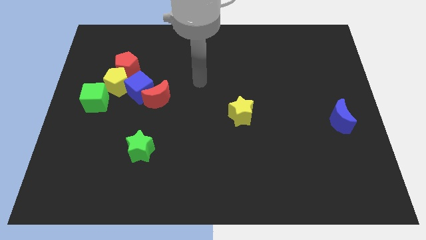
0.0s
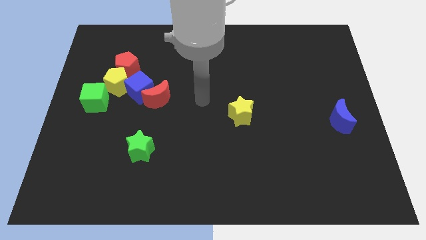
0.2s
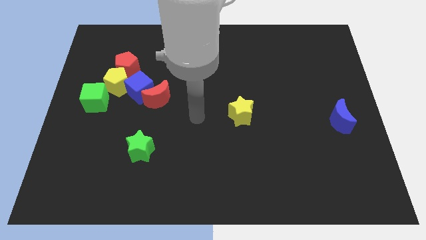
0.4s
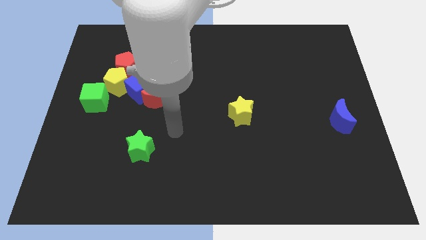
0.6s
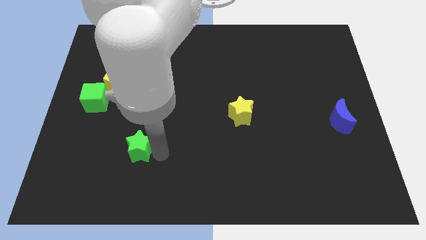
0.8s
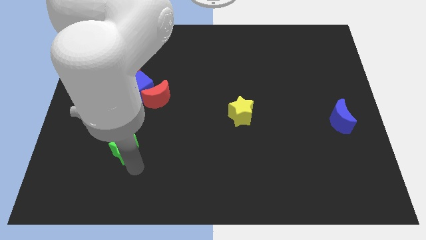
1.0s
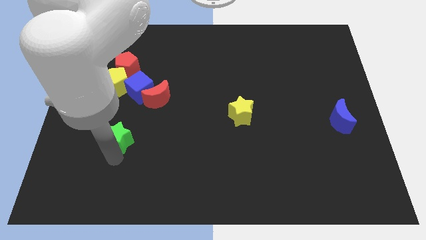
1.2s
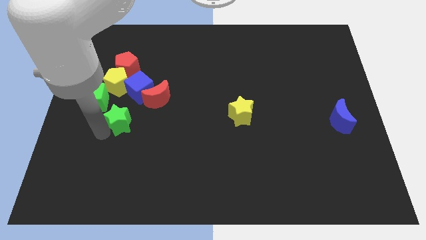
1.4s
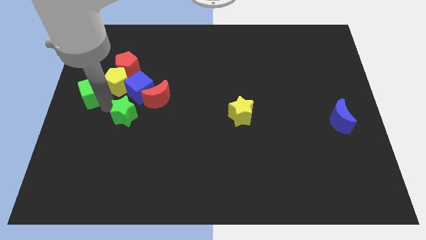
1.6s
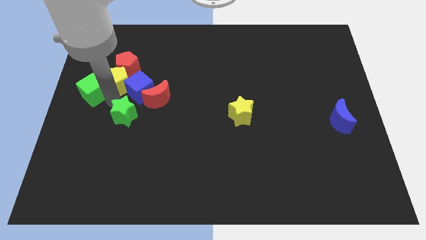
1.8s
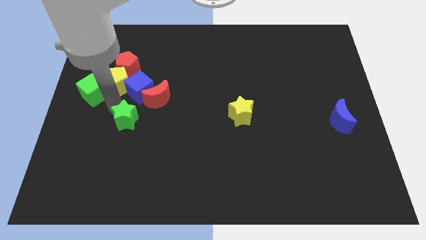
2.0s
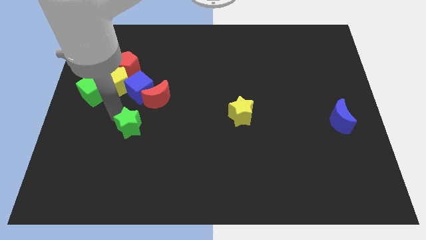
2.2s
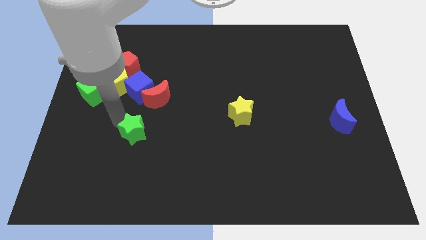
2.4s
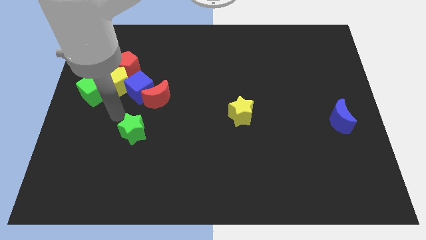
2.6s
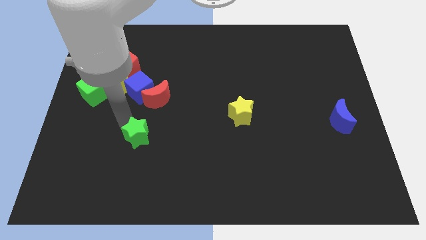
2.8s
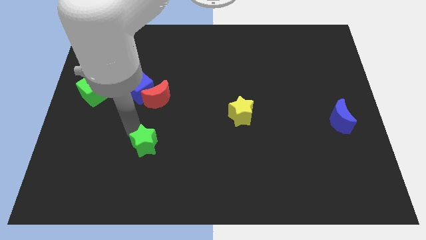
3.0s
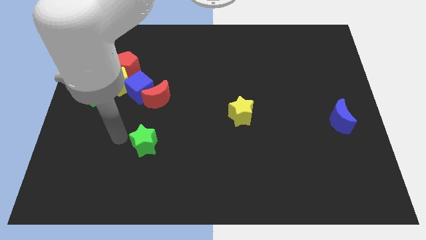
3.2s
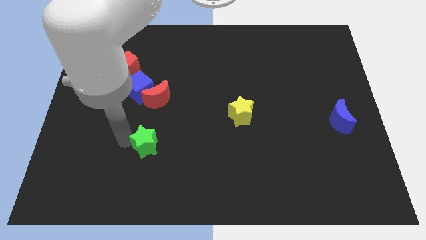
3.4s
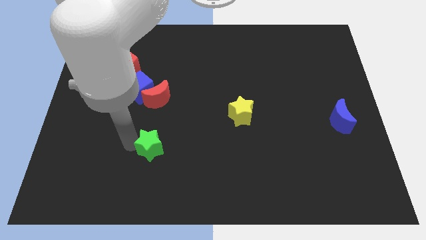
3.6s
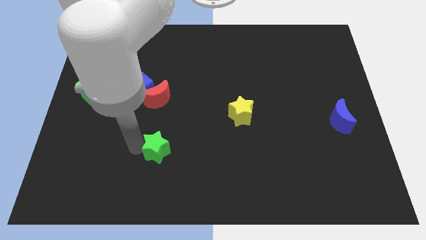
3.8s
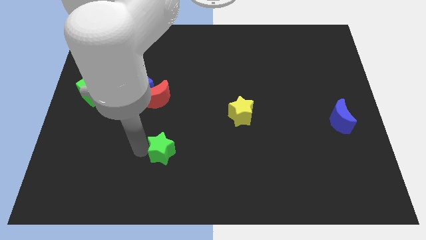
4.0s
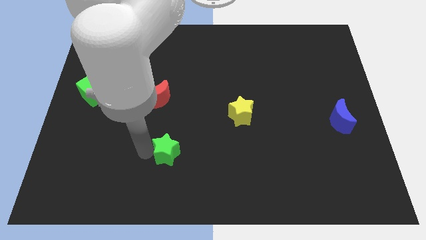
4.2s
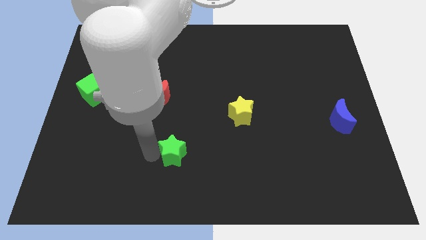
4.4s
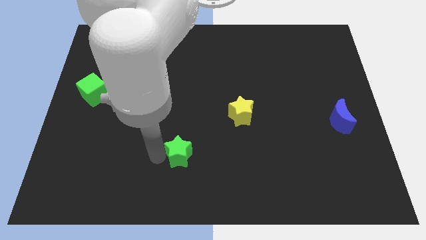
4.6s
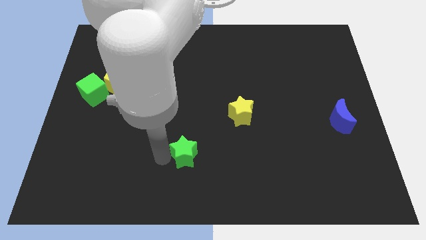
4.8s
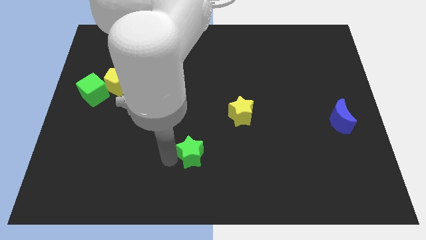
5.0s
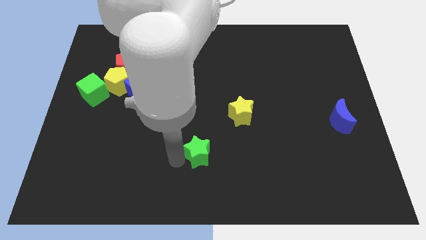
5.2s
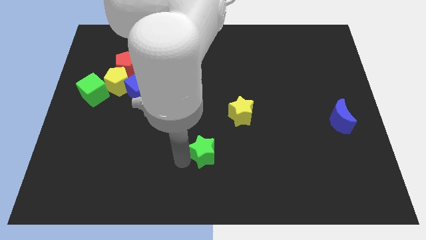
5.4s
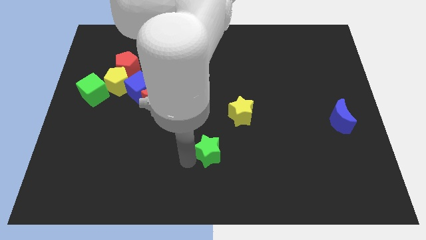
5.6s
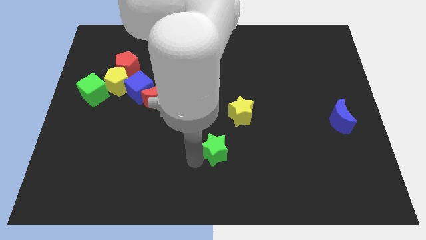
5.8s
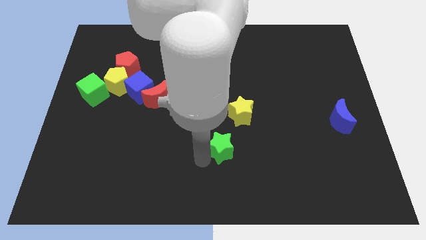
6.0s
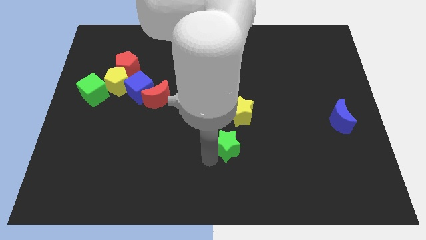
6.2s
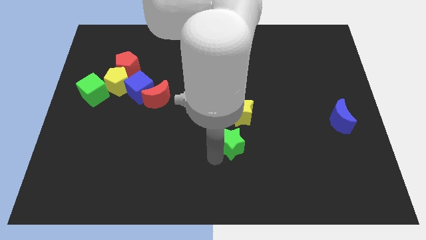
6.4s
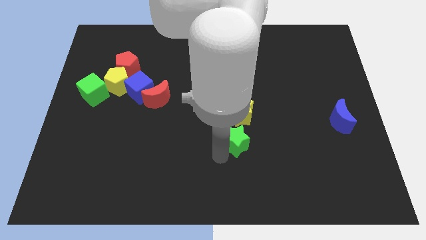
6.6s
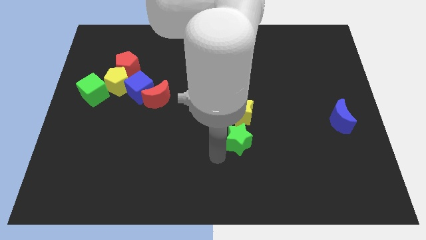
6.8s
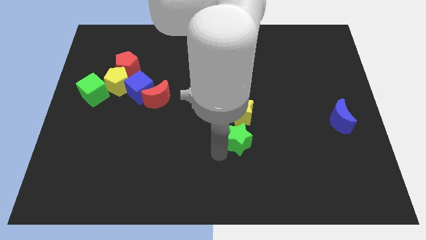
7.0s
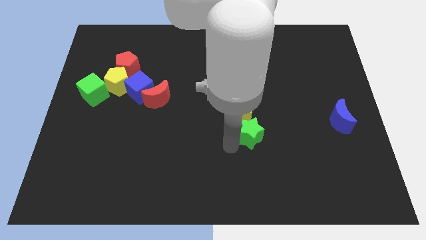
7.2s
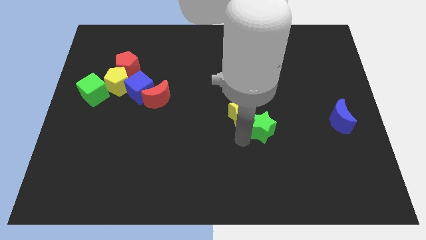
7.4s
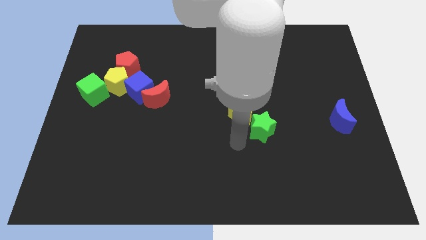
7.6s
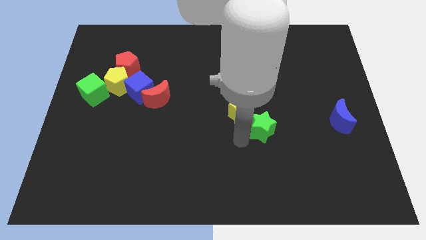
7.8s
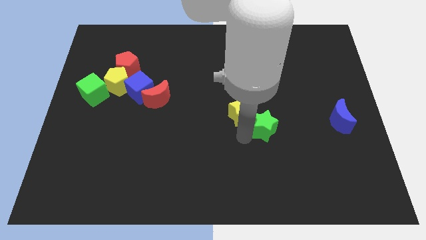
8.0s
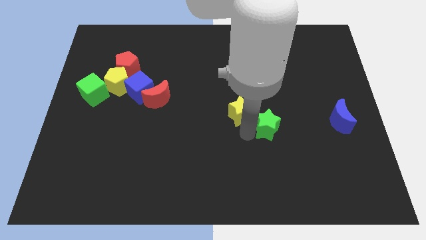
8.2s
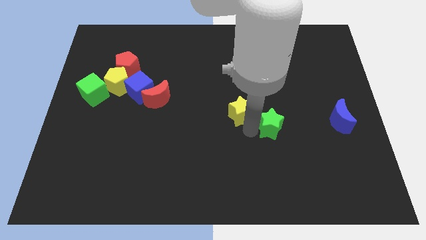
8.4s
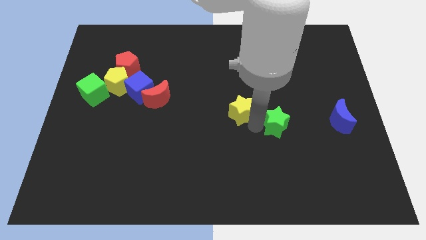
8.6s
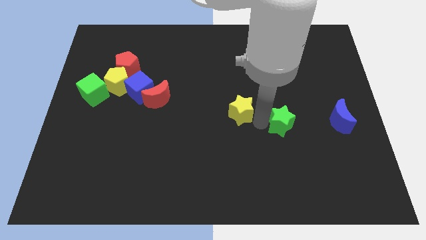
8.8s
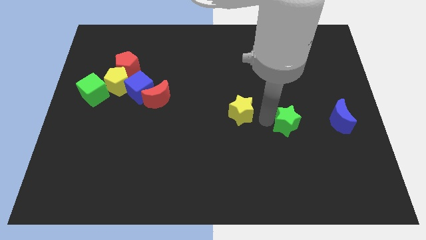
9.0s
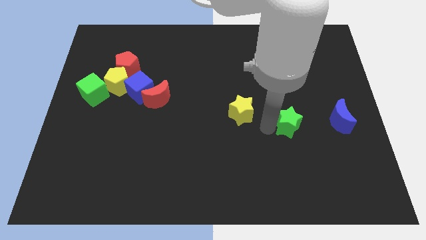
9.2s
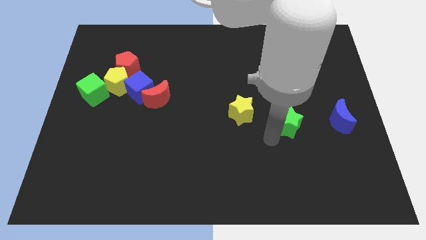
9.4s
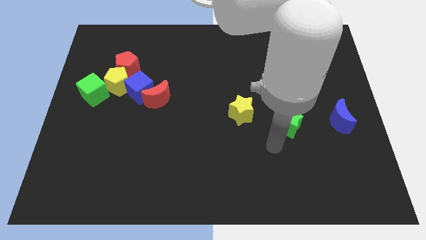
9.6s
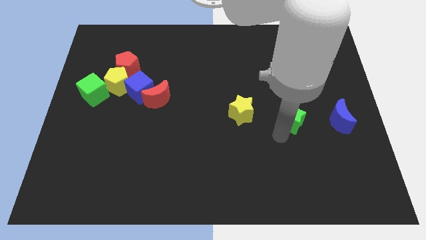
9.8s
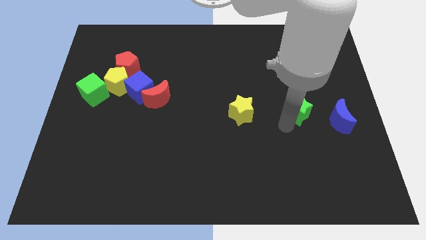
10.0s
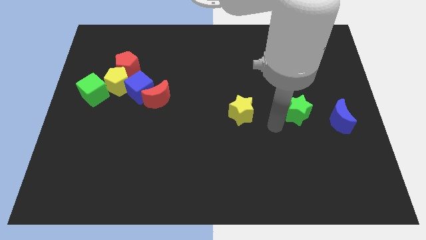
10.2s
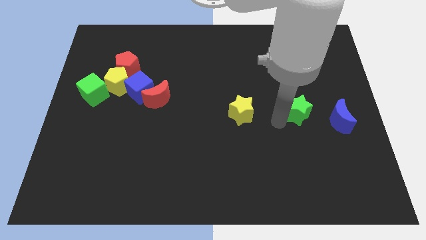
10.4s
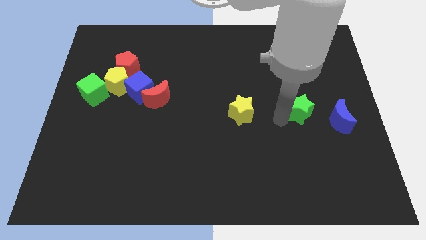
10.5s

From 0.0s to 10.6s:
move the green star diagonally up and to the left of the blue moon

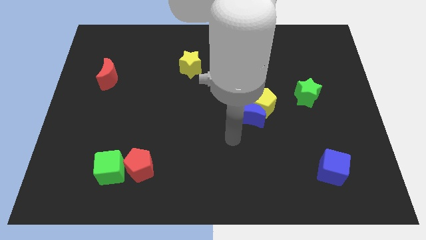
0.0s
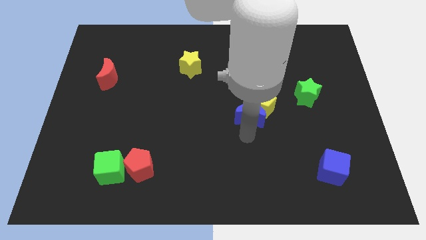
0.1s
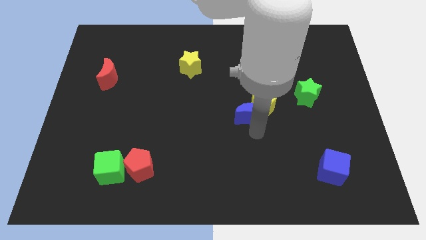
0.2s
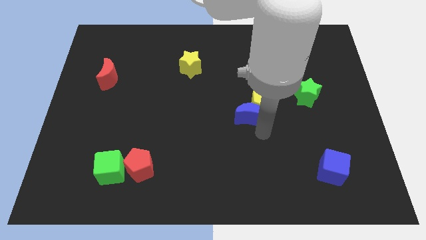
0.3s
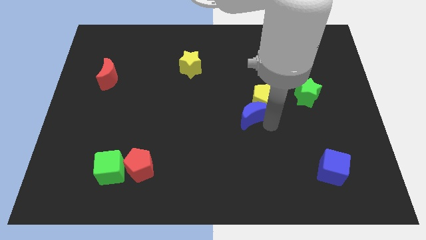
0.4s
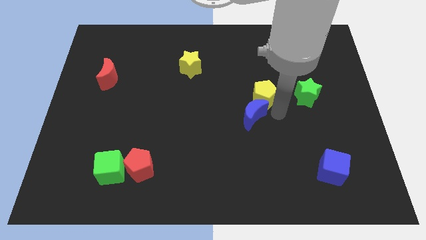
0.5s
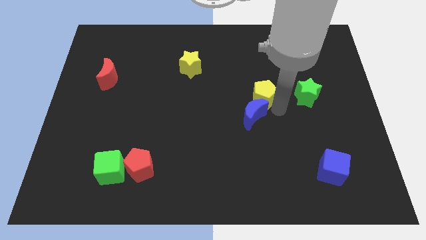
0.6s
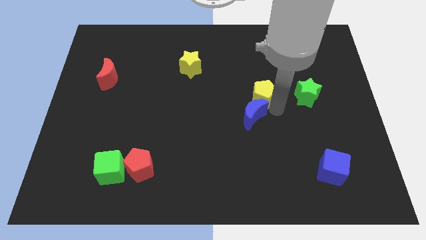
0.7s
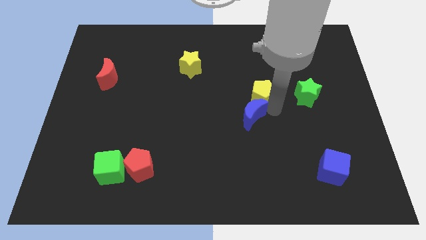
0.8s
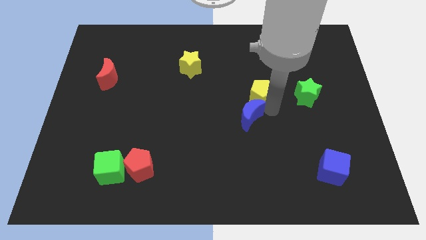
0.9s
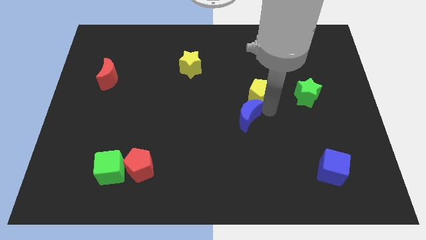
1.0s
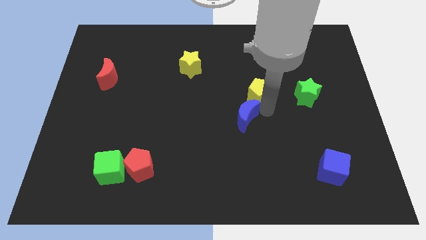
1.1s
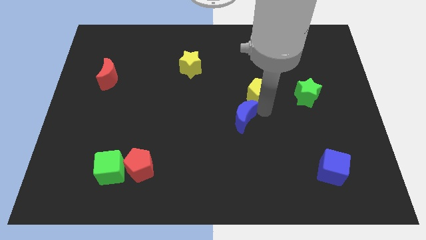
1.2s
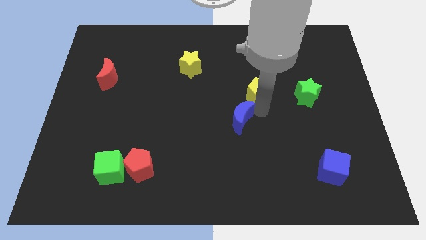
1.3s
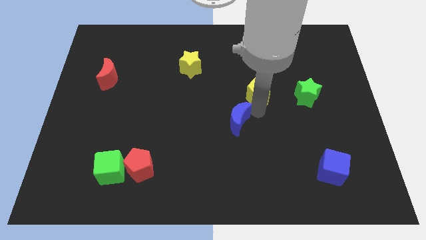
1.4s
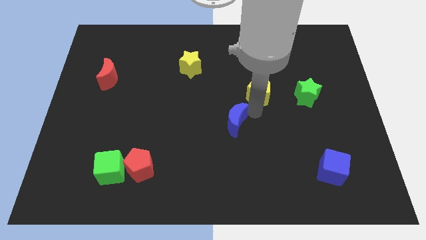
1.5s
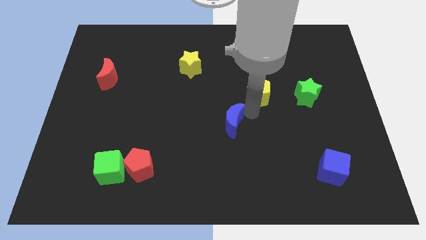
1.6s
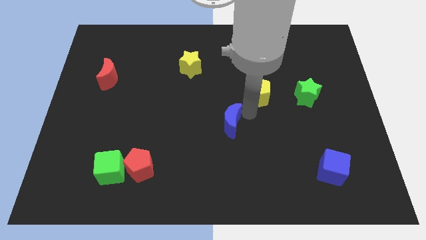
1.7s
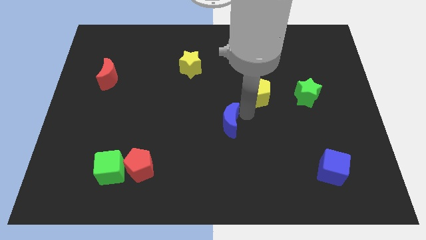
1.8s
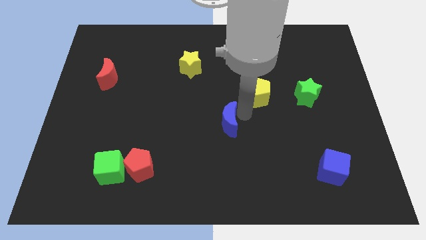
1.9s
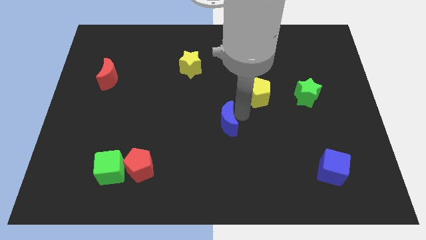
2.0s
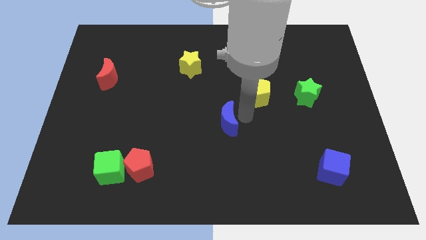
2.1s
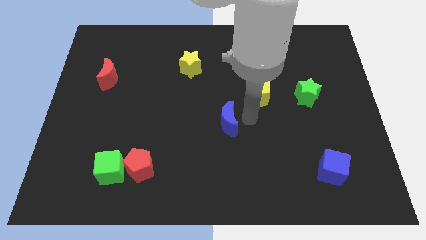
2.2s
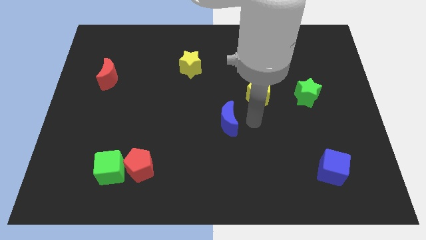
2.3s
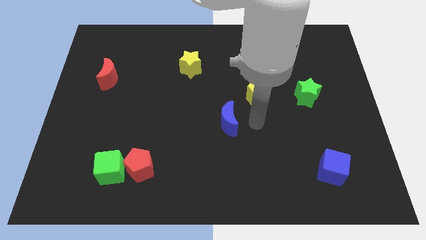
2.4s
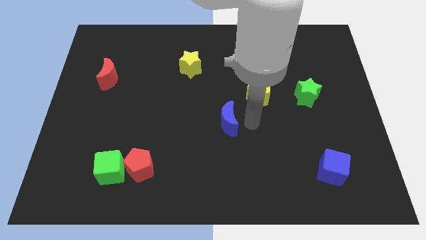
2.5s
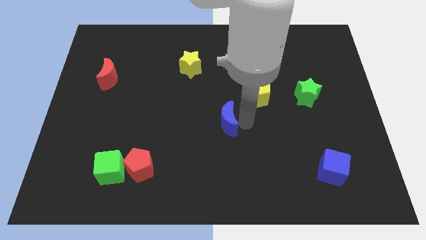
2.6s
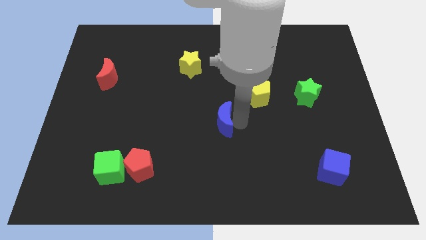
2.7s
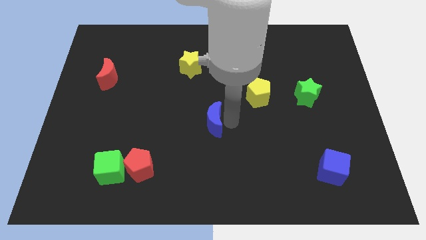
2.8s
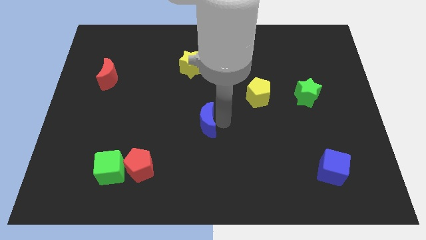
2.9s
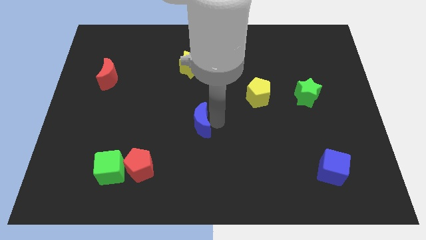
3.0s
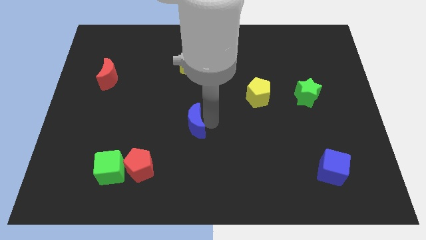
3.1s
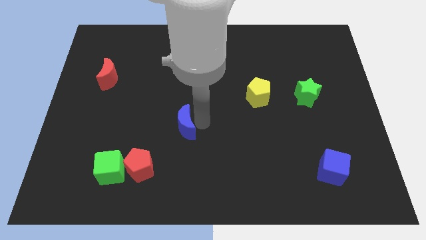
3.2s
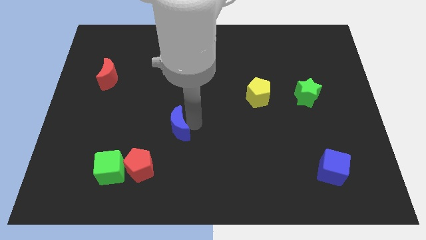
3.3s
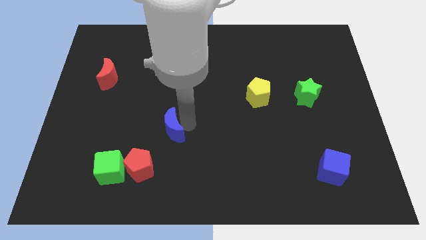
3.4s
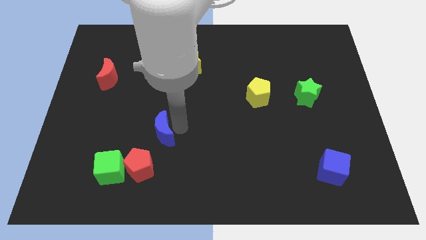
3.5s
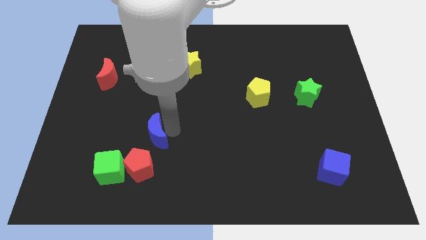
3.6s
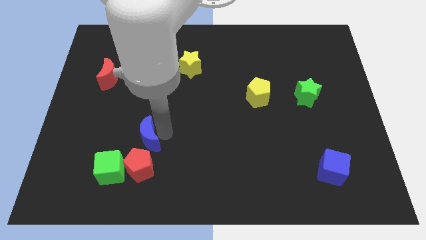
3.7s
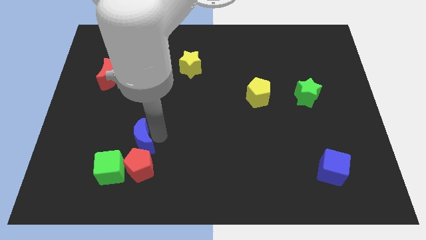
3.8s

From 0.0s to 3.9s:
put the blue moon to the top left of the red pentagon
